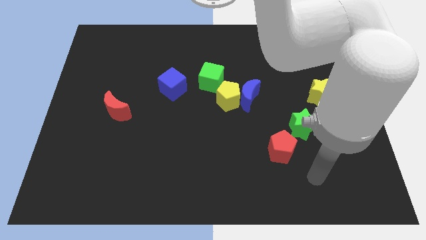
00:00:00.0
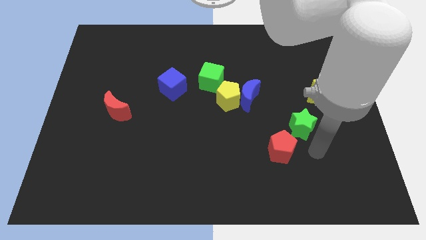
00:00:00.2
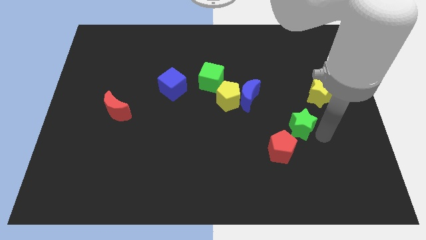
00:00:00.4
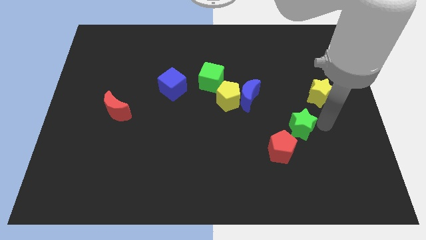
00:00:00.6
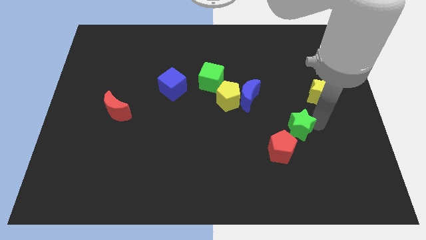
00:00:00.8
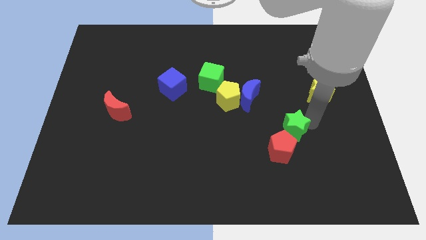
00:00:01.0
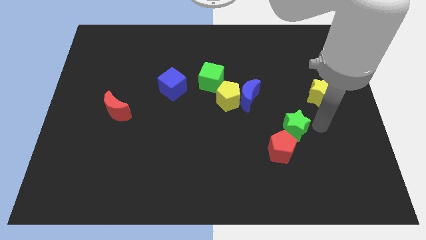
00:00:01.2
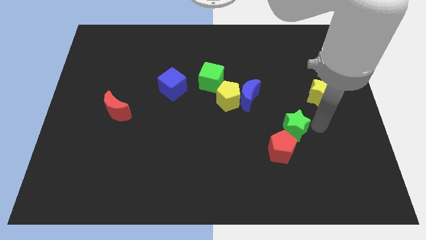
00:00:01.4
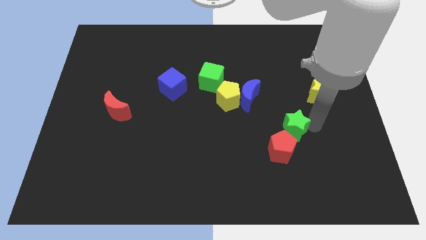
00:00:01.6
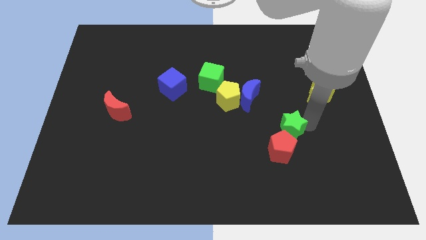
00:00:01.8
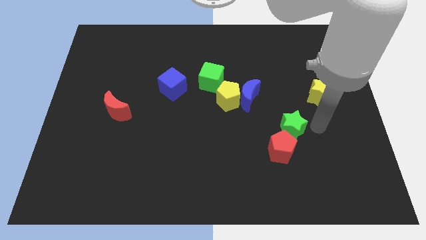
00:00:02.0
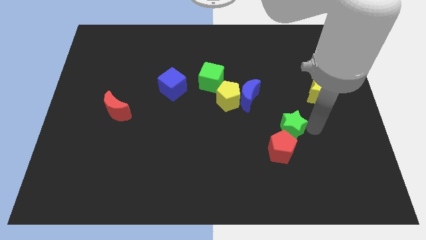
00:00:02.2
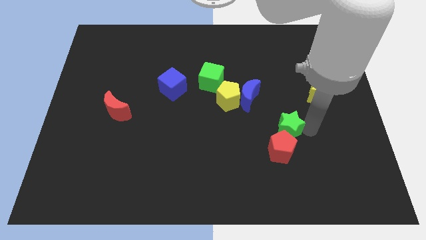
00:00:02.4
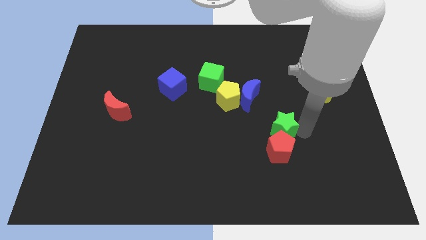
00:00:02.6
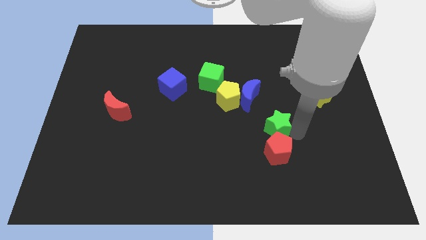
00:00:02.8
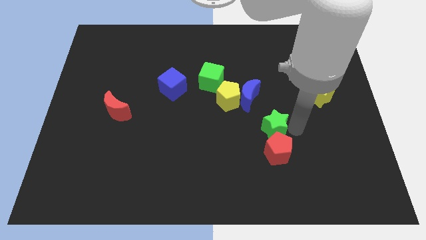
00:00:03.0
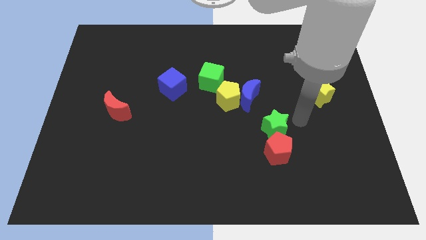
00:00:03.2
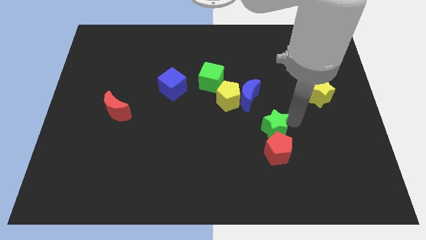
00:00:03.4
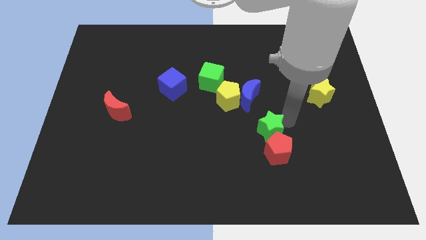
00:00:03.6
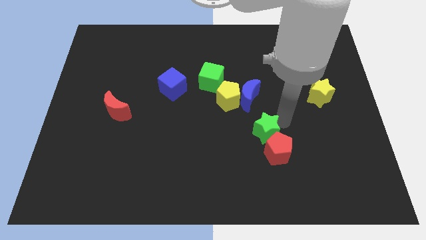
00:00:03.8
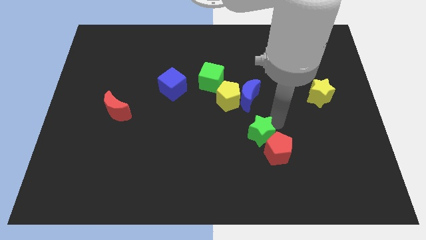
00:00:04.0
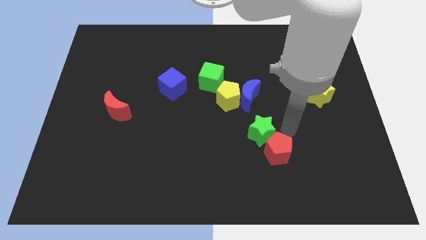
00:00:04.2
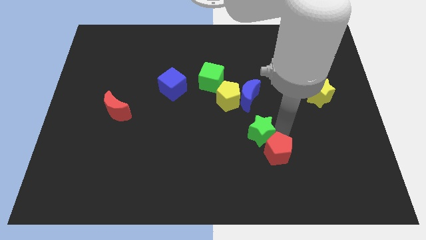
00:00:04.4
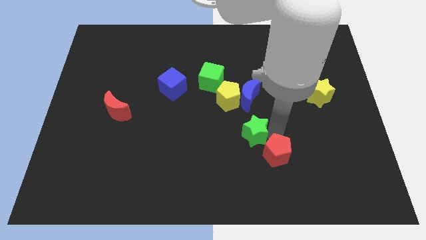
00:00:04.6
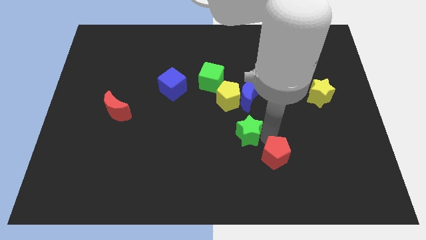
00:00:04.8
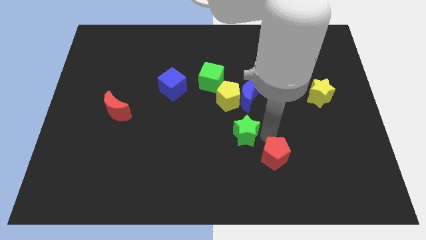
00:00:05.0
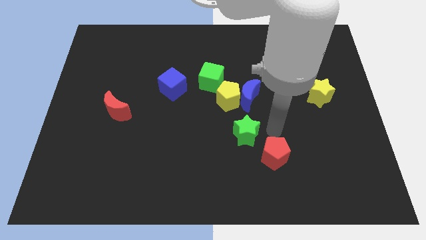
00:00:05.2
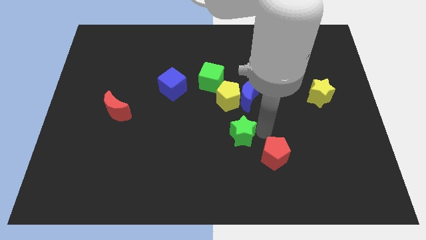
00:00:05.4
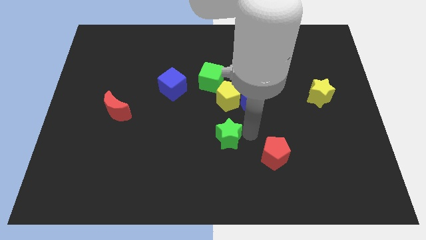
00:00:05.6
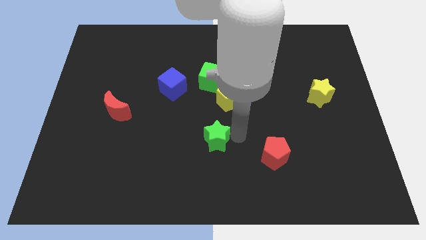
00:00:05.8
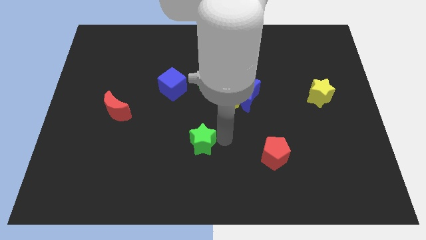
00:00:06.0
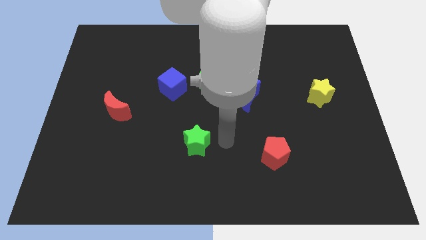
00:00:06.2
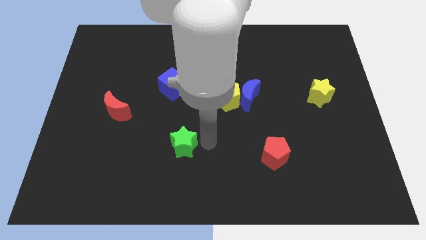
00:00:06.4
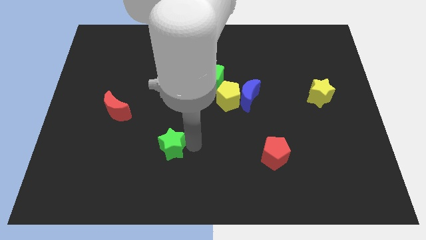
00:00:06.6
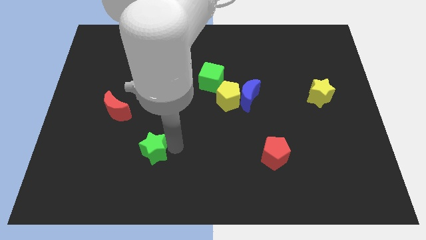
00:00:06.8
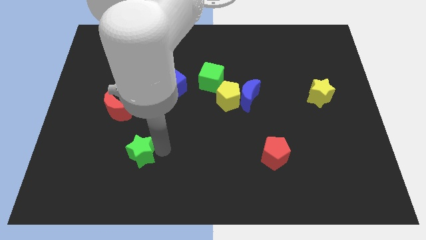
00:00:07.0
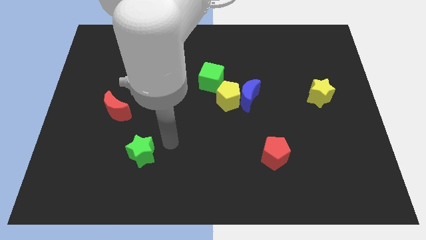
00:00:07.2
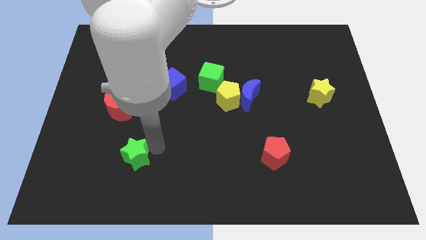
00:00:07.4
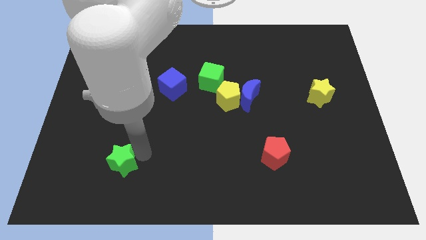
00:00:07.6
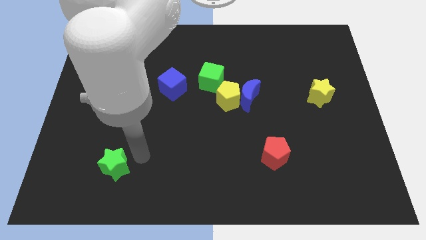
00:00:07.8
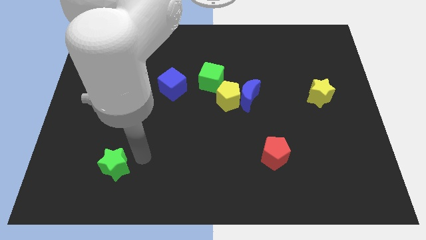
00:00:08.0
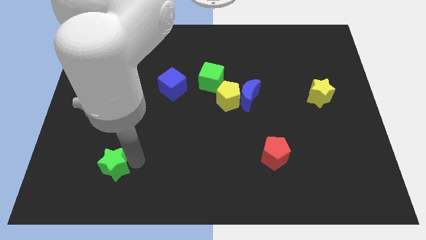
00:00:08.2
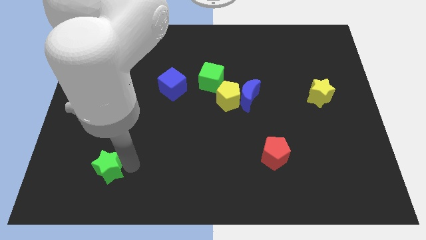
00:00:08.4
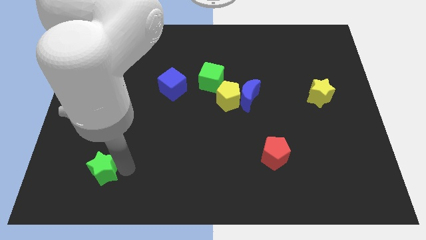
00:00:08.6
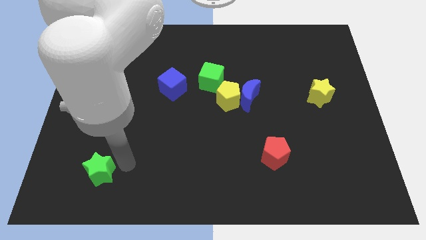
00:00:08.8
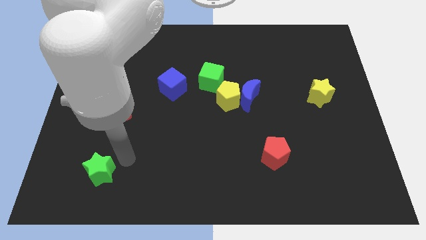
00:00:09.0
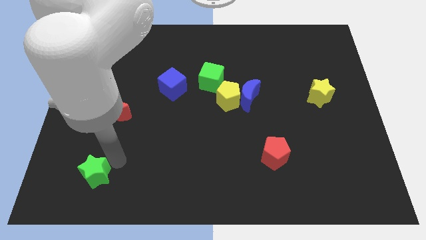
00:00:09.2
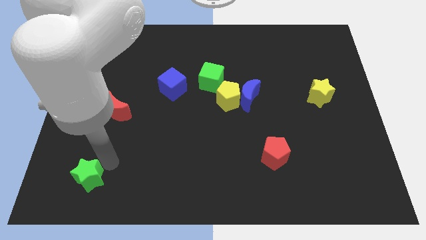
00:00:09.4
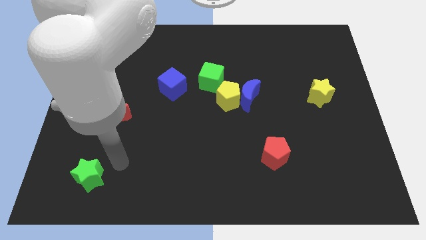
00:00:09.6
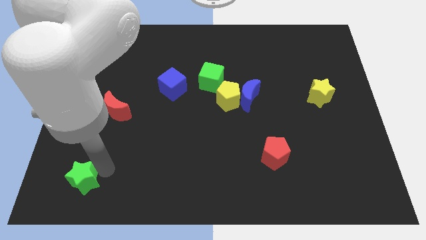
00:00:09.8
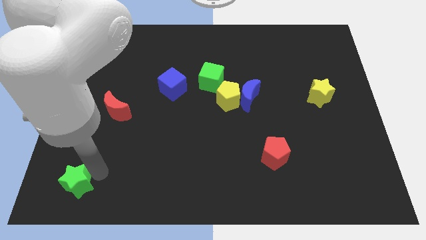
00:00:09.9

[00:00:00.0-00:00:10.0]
push the green star to the lower left corner

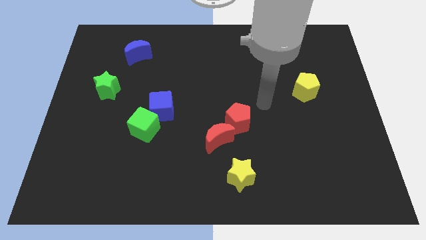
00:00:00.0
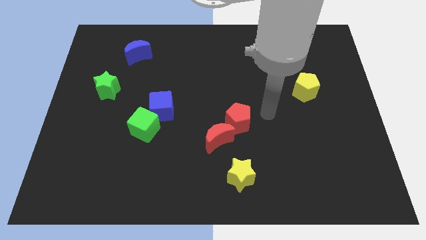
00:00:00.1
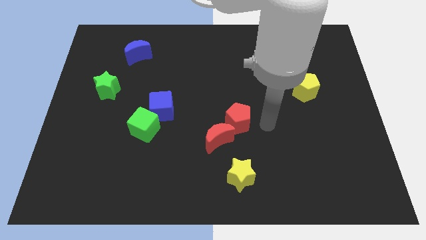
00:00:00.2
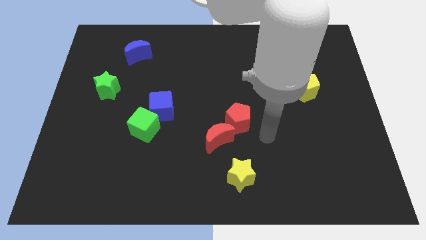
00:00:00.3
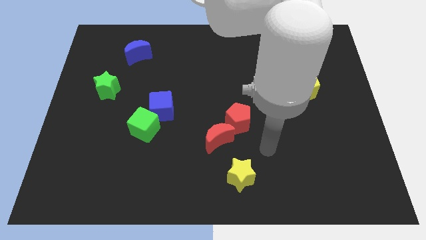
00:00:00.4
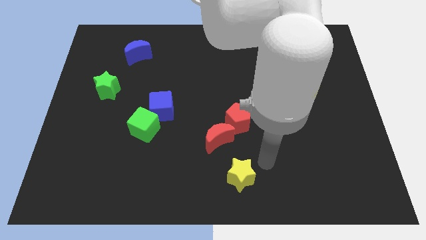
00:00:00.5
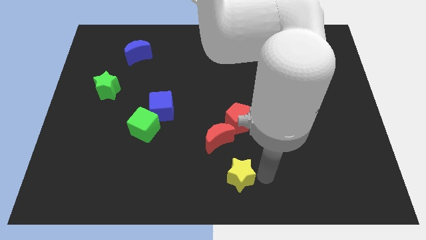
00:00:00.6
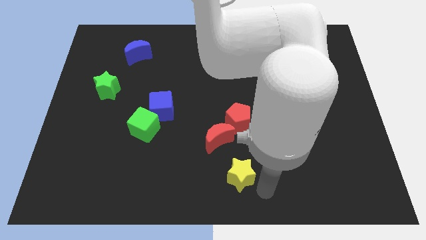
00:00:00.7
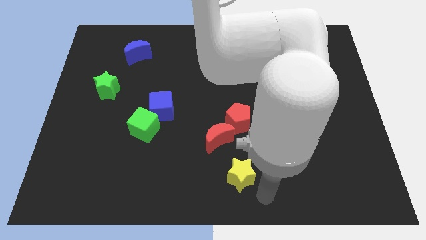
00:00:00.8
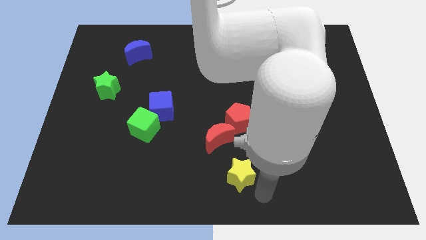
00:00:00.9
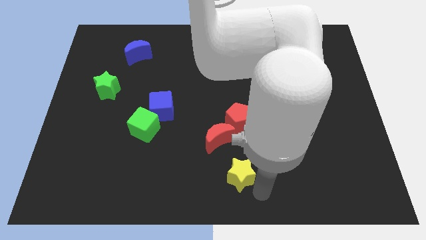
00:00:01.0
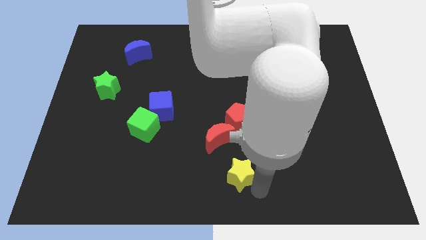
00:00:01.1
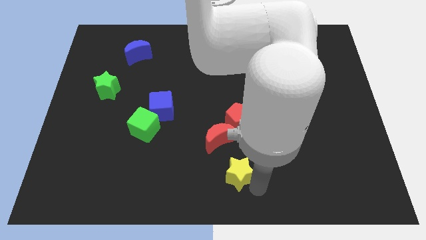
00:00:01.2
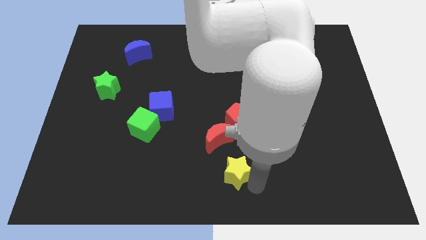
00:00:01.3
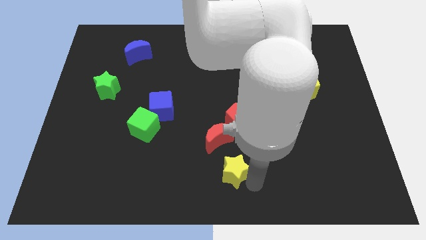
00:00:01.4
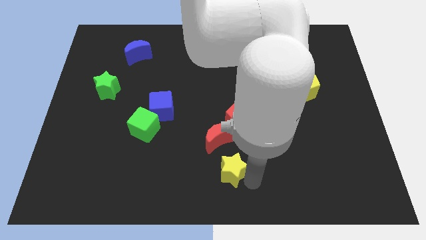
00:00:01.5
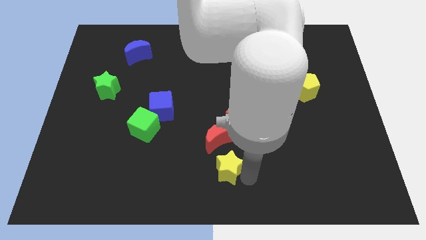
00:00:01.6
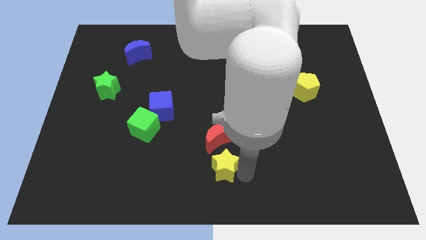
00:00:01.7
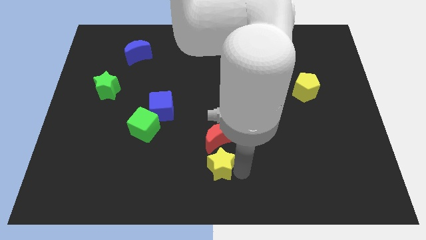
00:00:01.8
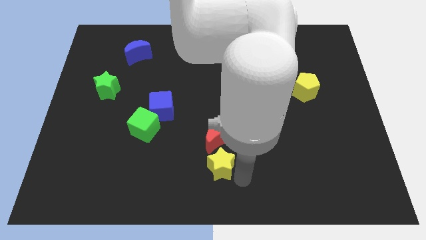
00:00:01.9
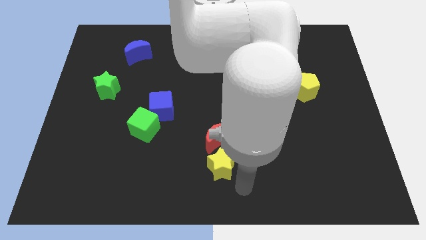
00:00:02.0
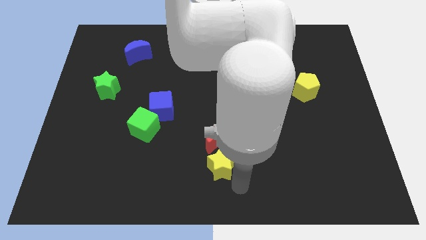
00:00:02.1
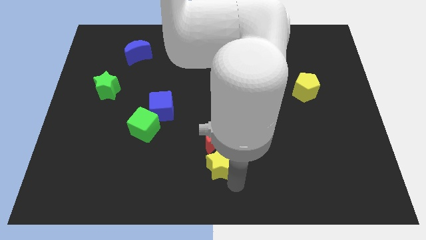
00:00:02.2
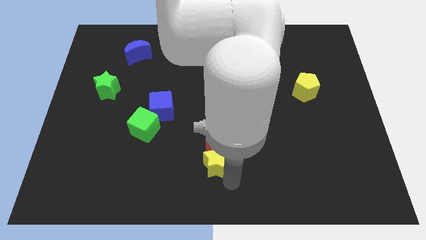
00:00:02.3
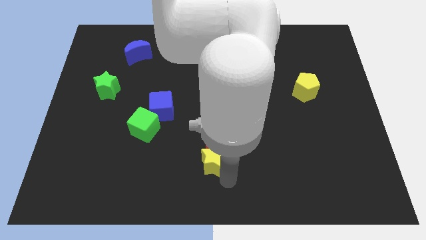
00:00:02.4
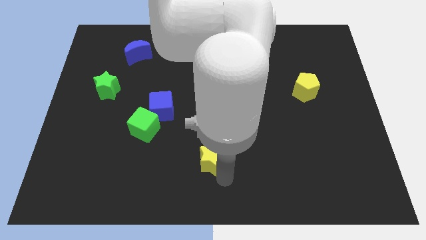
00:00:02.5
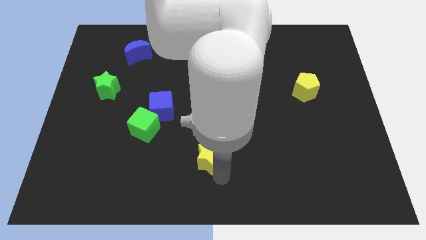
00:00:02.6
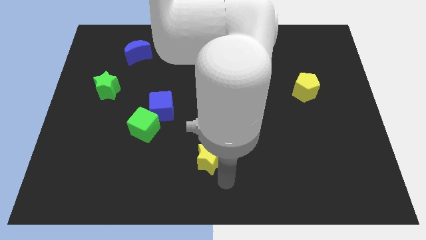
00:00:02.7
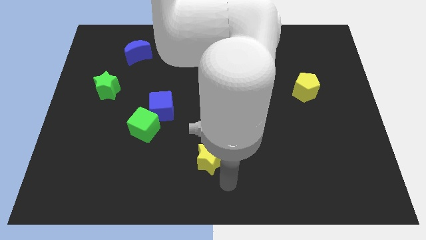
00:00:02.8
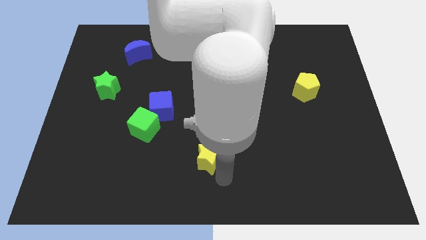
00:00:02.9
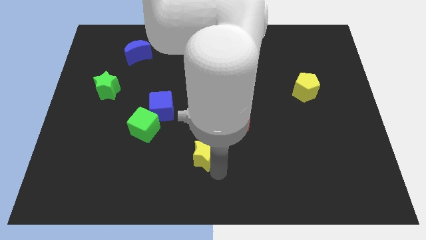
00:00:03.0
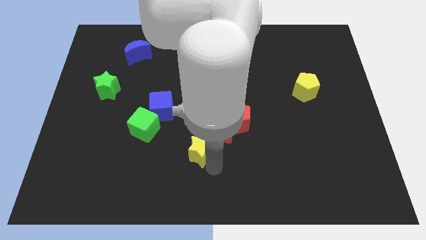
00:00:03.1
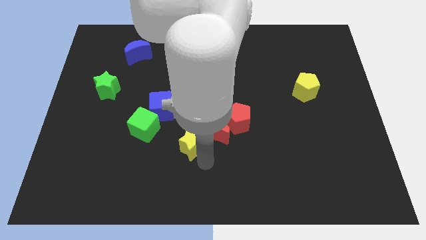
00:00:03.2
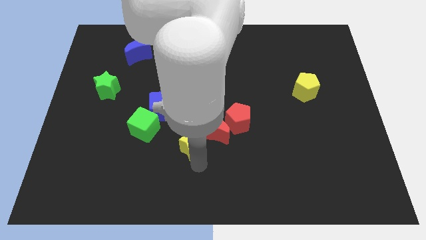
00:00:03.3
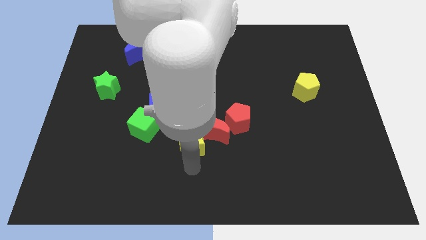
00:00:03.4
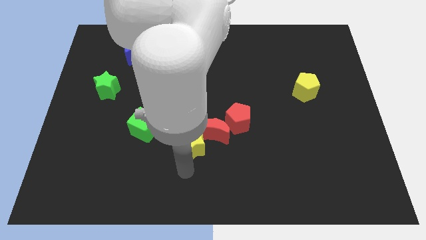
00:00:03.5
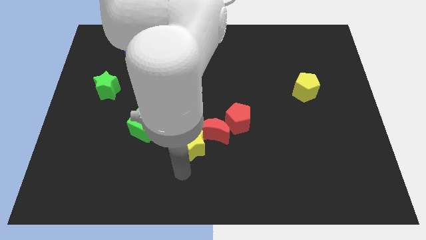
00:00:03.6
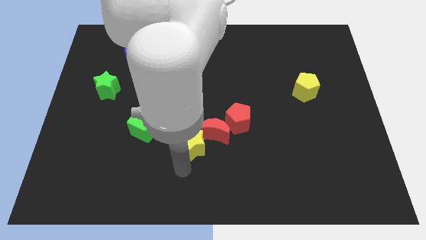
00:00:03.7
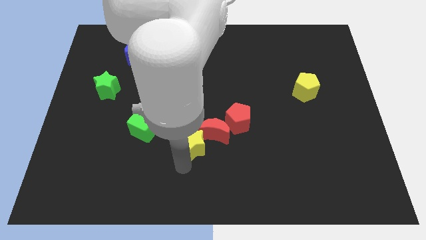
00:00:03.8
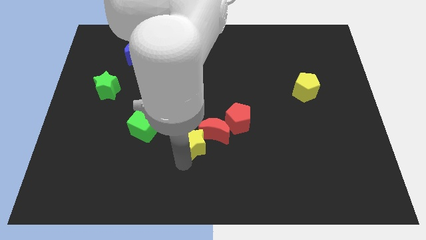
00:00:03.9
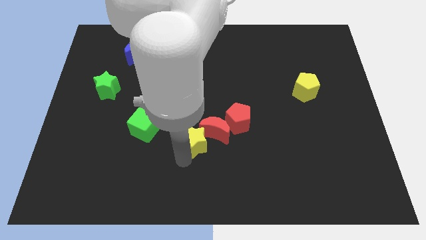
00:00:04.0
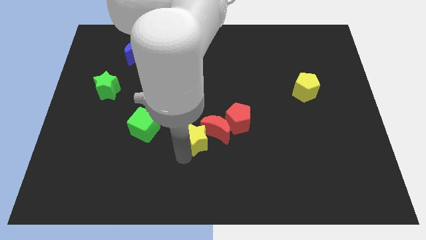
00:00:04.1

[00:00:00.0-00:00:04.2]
push the yellow star to the middle of the board
